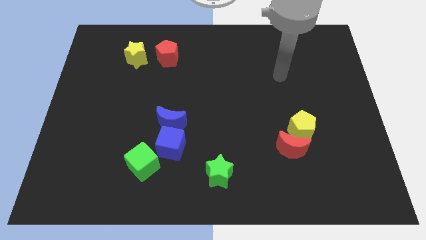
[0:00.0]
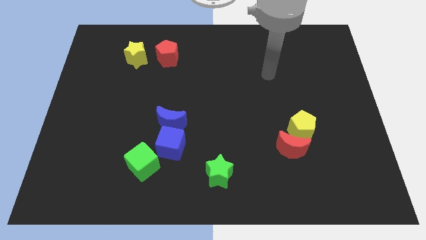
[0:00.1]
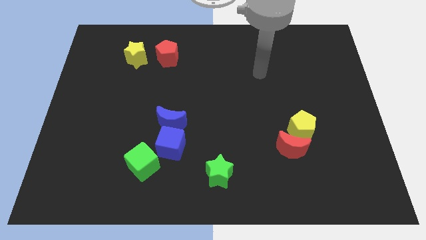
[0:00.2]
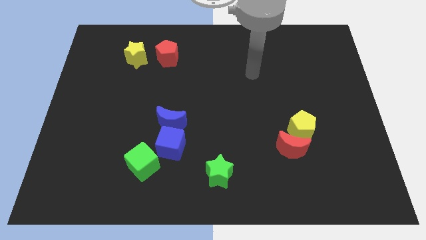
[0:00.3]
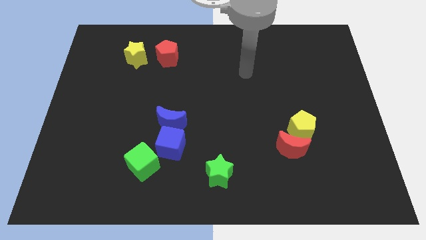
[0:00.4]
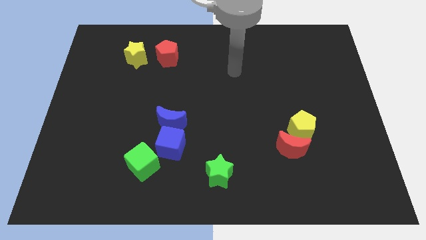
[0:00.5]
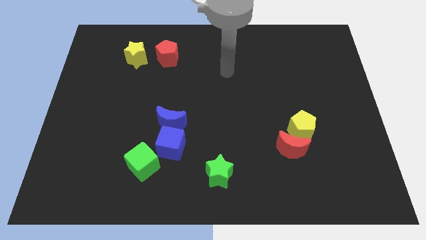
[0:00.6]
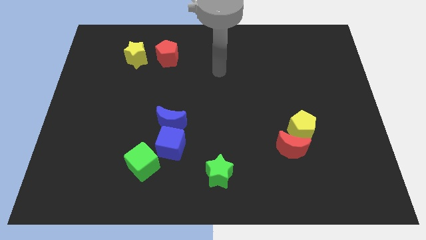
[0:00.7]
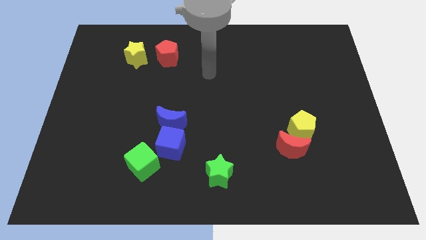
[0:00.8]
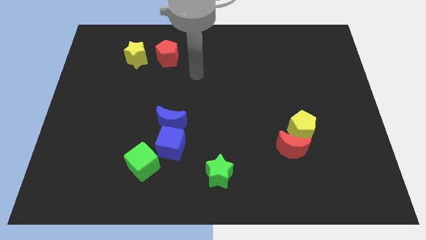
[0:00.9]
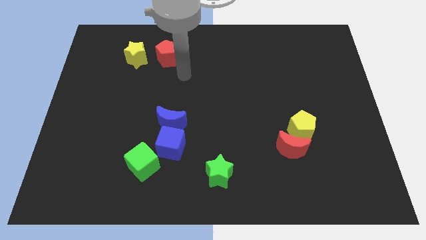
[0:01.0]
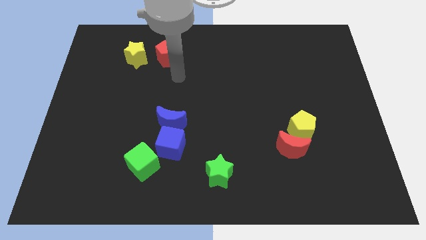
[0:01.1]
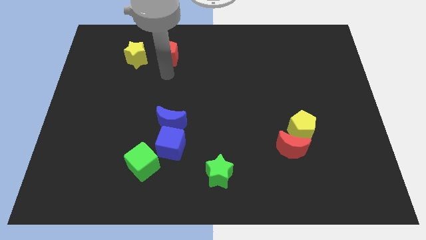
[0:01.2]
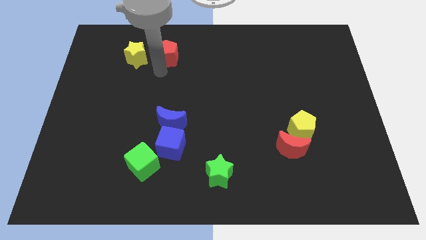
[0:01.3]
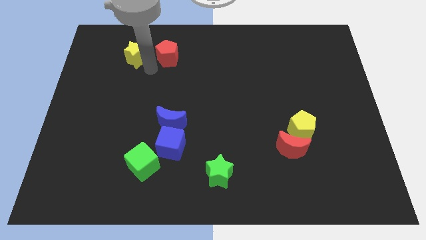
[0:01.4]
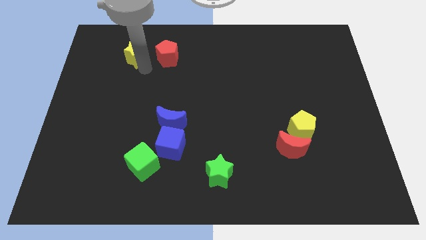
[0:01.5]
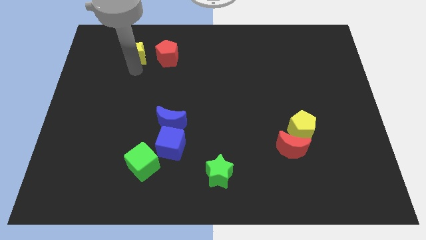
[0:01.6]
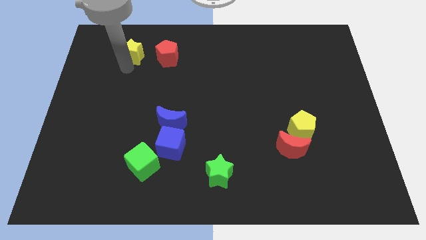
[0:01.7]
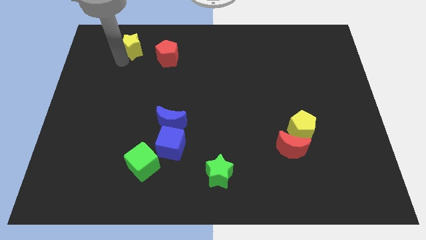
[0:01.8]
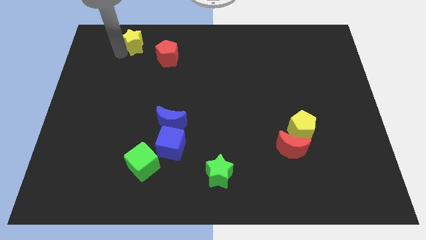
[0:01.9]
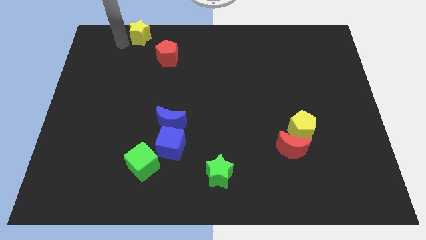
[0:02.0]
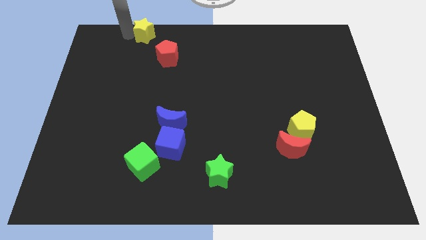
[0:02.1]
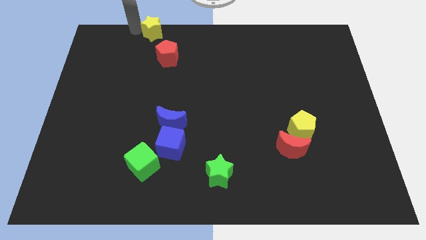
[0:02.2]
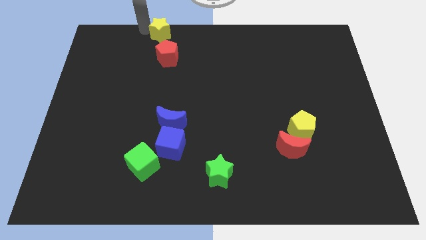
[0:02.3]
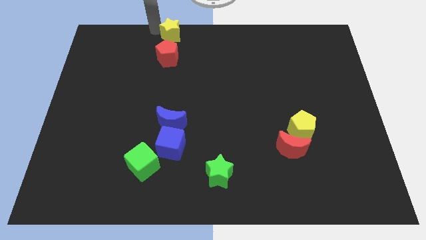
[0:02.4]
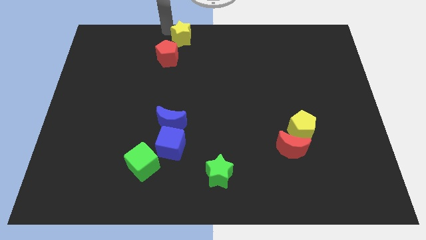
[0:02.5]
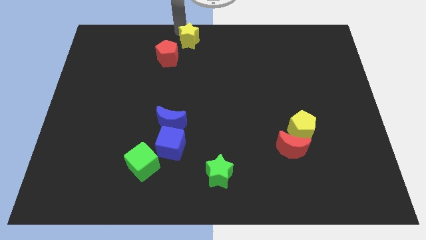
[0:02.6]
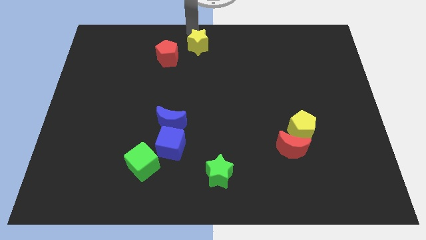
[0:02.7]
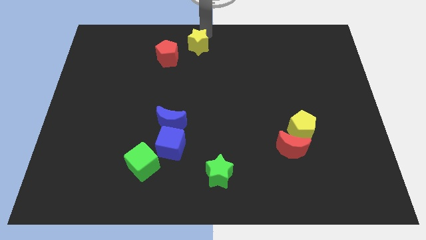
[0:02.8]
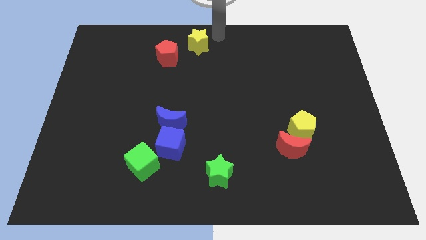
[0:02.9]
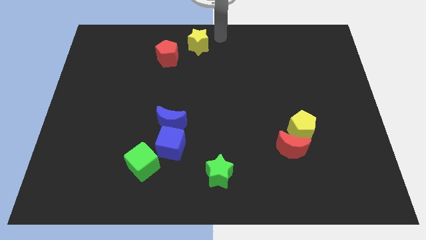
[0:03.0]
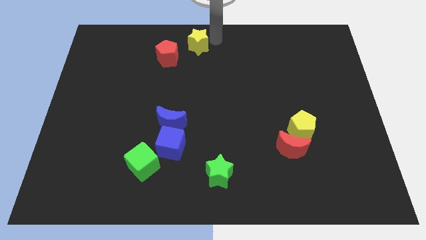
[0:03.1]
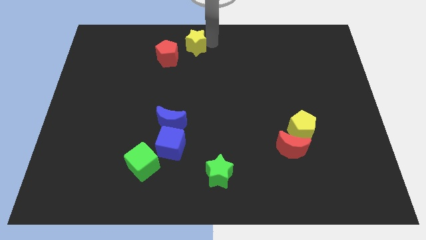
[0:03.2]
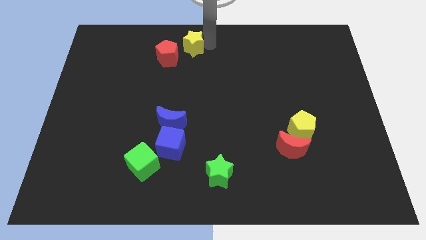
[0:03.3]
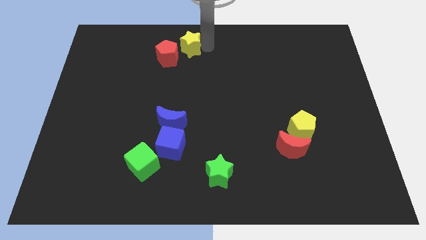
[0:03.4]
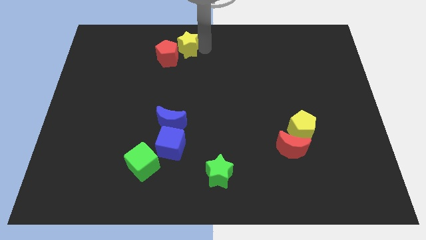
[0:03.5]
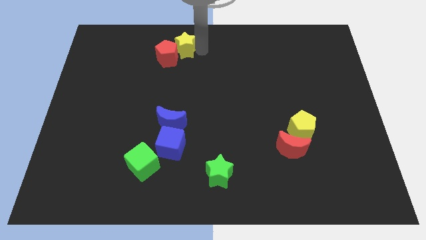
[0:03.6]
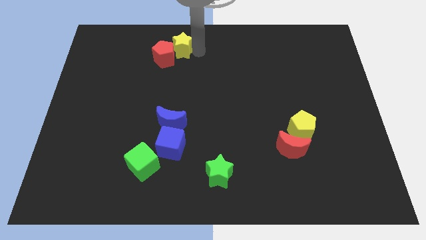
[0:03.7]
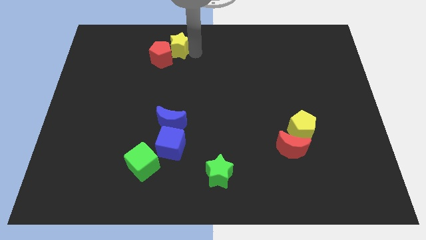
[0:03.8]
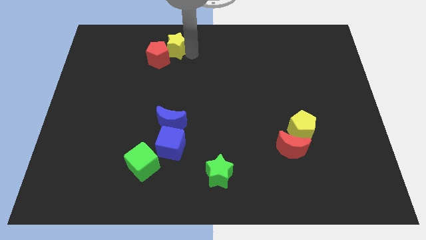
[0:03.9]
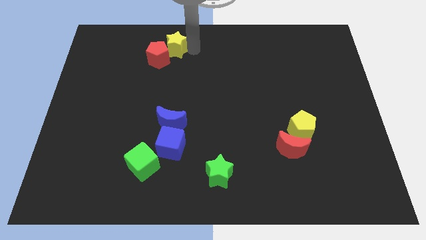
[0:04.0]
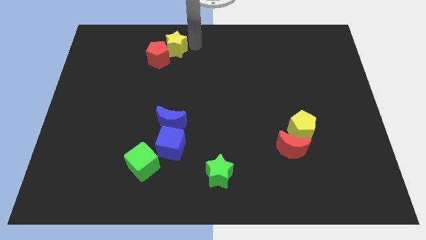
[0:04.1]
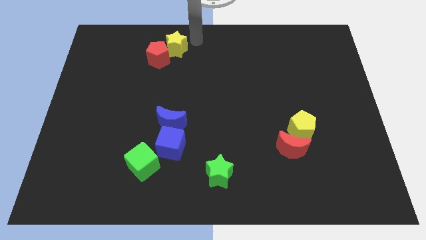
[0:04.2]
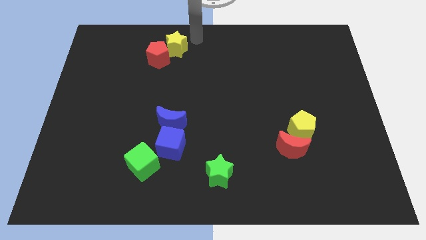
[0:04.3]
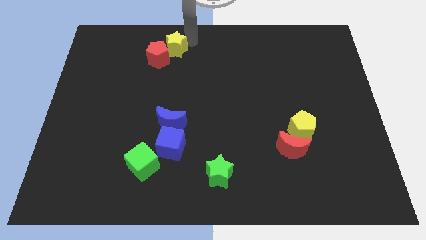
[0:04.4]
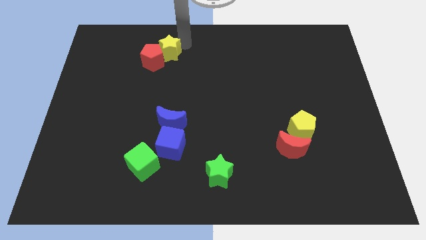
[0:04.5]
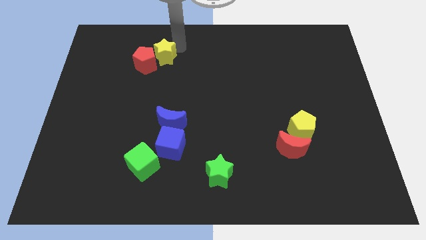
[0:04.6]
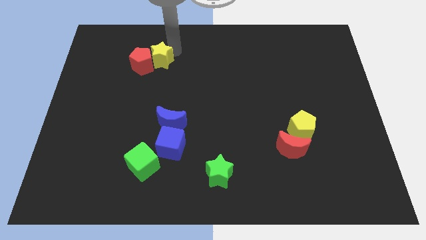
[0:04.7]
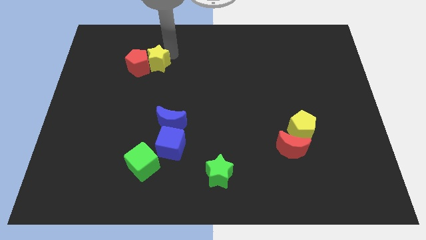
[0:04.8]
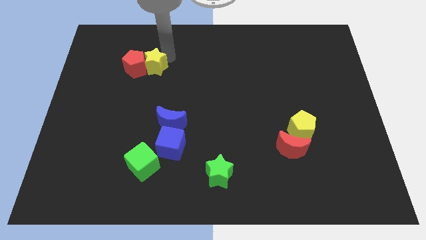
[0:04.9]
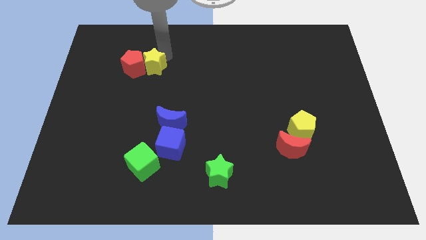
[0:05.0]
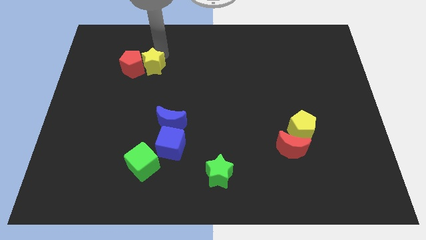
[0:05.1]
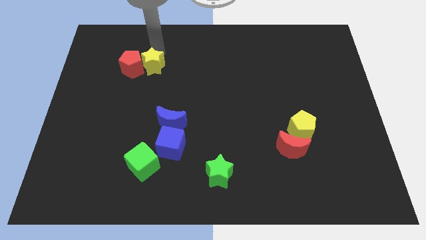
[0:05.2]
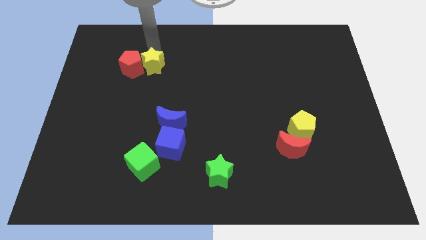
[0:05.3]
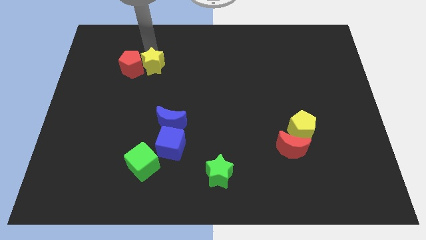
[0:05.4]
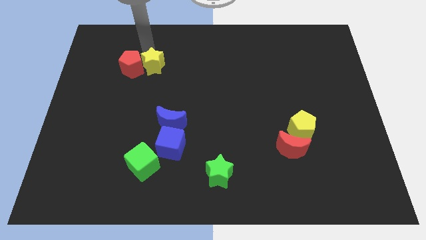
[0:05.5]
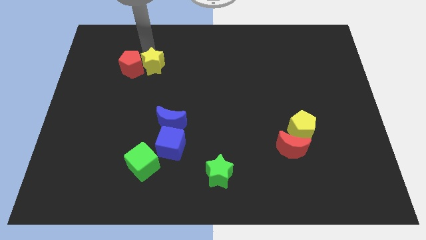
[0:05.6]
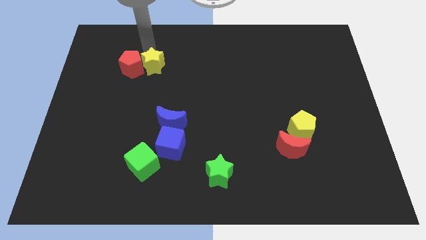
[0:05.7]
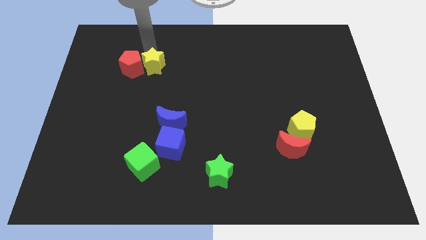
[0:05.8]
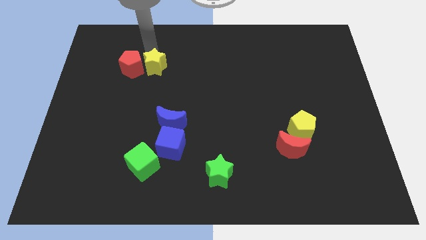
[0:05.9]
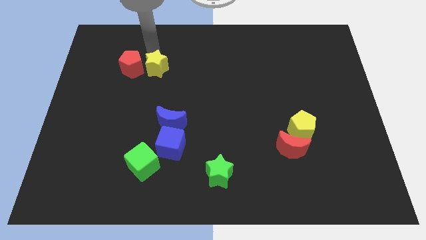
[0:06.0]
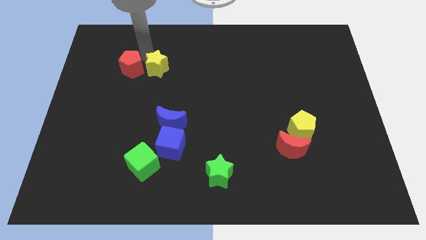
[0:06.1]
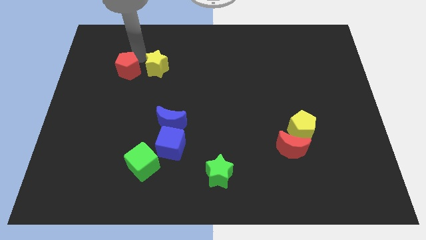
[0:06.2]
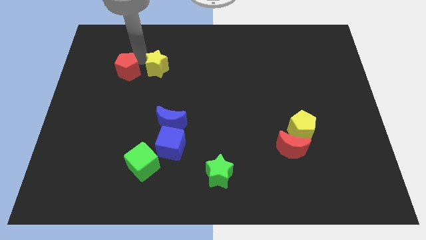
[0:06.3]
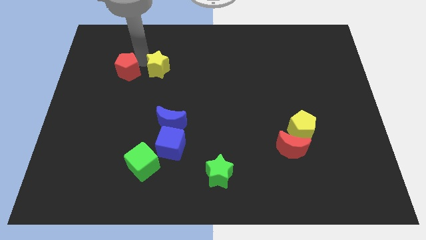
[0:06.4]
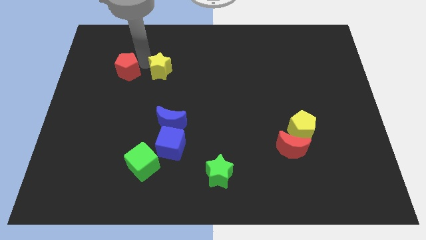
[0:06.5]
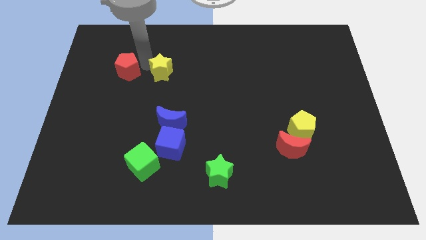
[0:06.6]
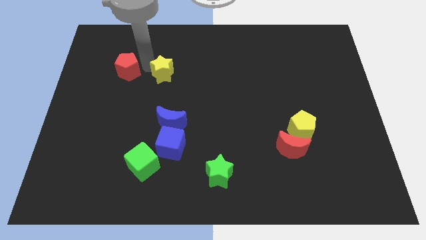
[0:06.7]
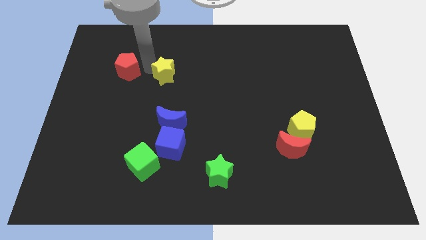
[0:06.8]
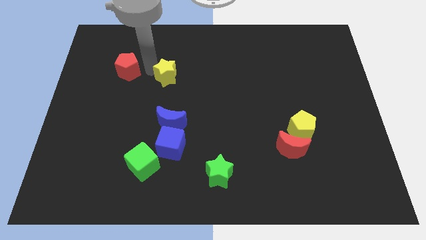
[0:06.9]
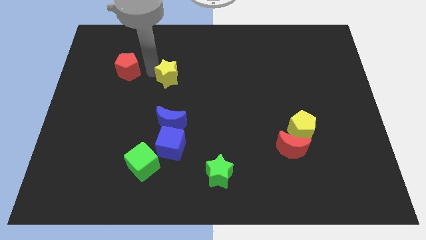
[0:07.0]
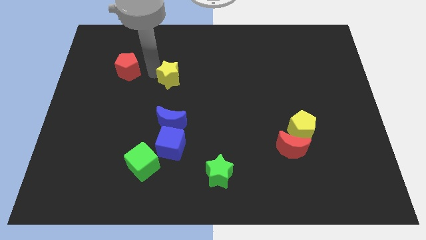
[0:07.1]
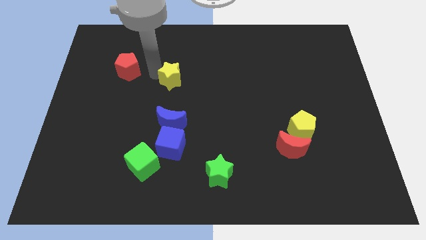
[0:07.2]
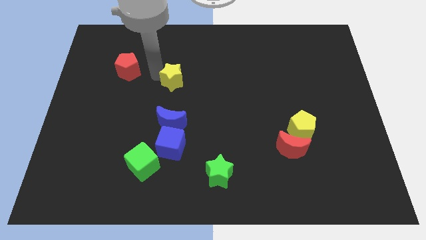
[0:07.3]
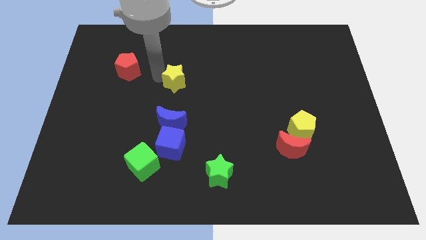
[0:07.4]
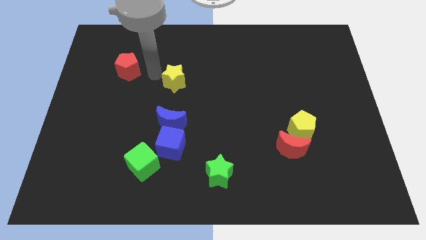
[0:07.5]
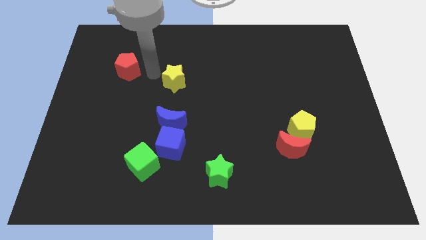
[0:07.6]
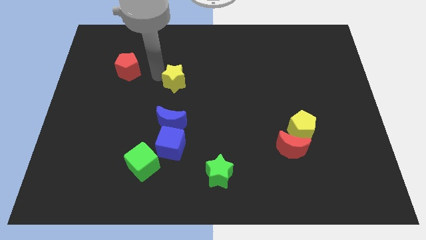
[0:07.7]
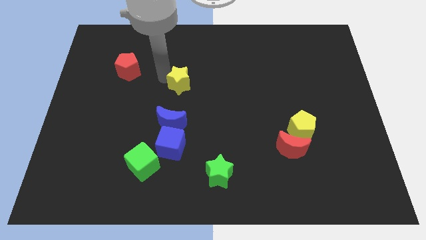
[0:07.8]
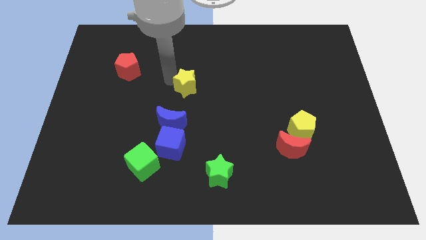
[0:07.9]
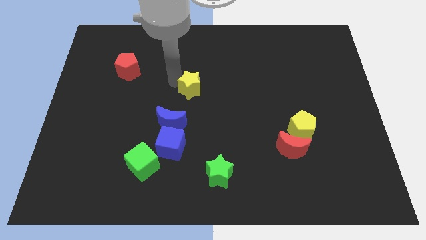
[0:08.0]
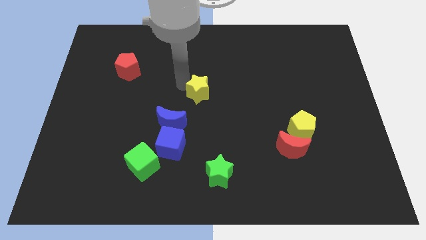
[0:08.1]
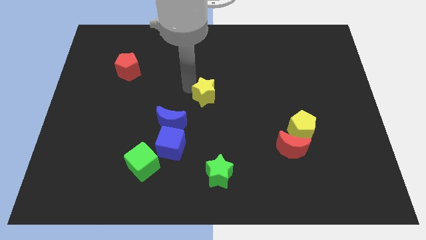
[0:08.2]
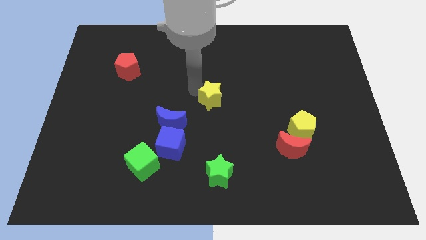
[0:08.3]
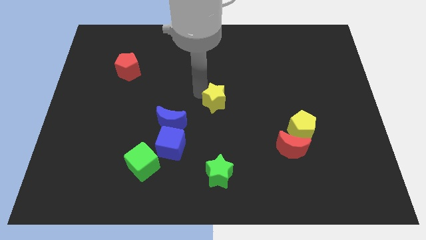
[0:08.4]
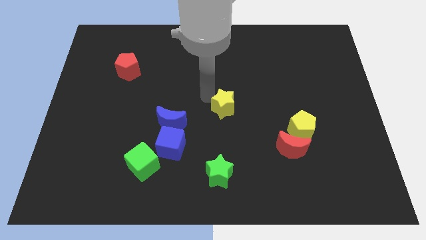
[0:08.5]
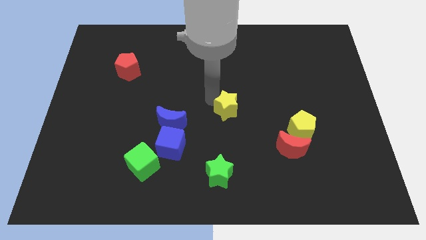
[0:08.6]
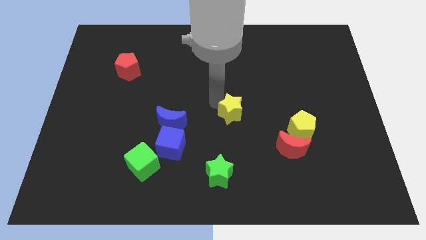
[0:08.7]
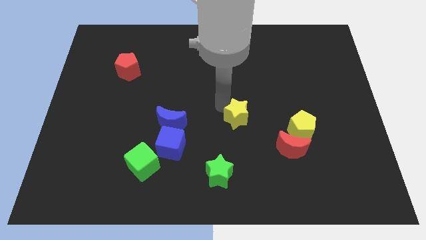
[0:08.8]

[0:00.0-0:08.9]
move the yellow star left of the yellow pentagon
